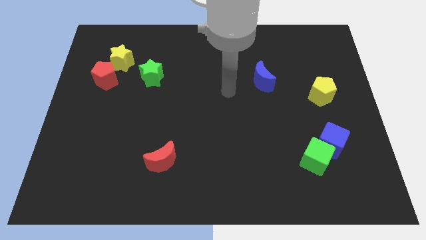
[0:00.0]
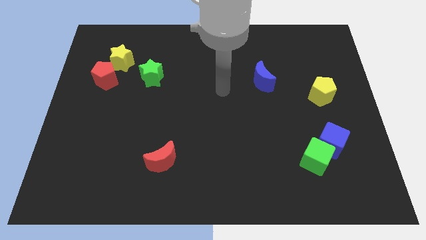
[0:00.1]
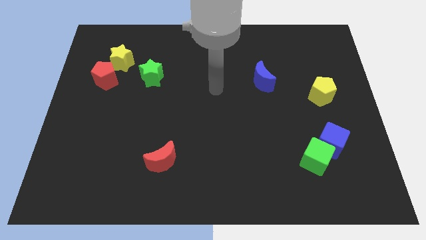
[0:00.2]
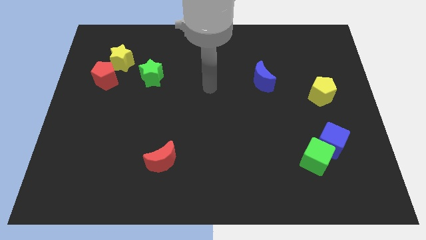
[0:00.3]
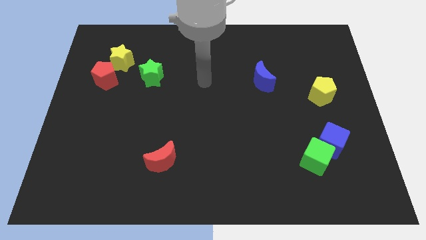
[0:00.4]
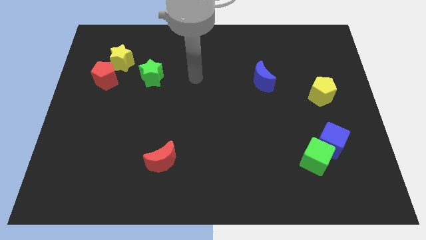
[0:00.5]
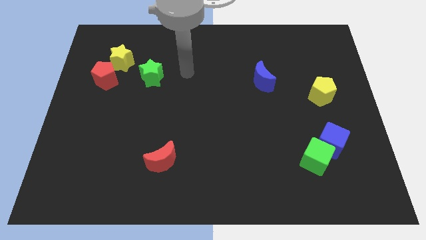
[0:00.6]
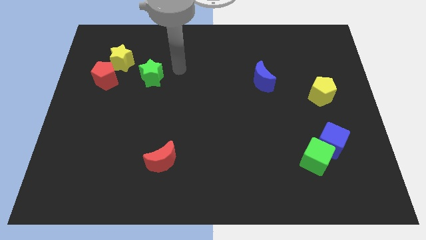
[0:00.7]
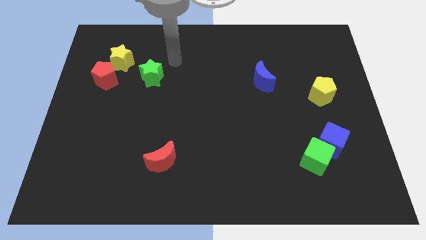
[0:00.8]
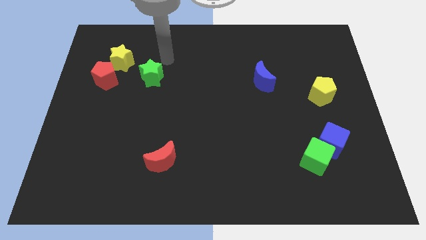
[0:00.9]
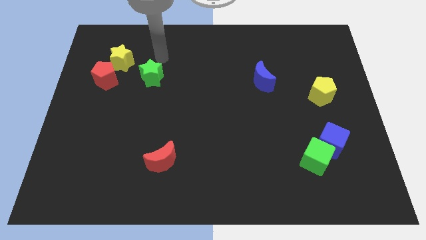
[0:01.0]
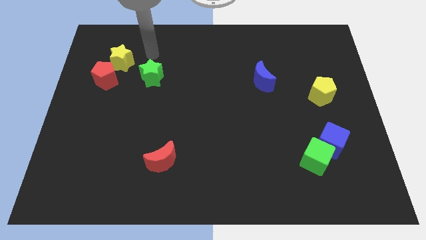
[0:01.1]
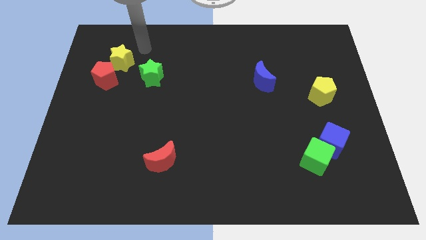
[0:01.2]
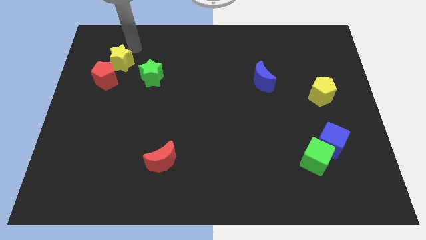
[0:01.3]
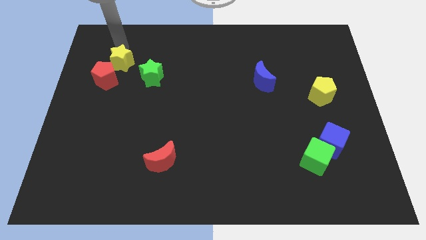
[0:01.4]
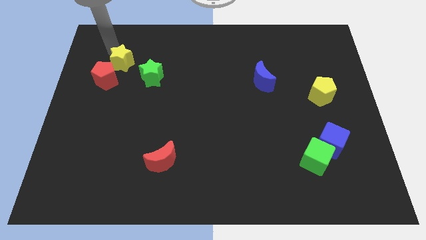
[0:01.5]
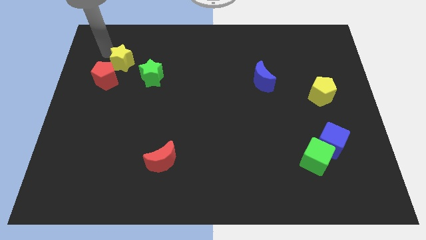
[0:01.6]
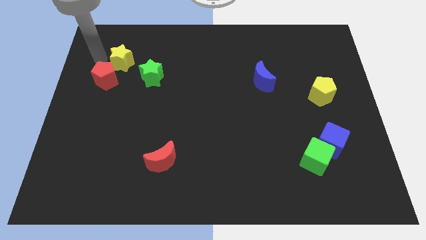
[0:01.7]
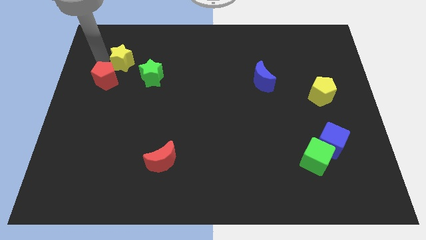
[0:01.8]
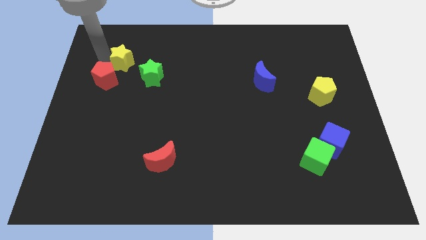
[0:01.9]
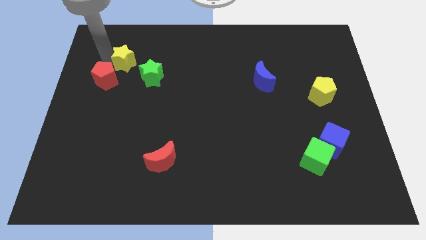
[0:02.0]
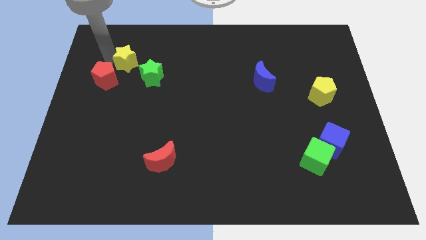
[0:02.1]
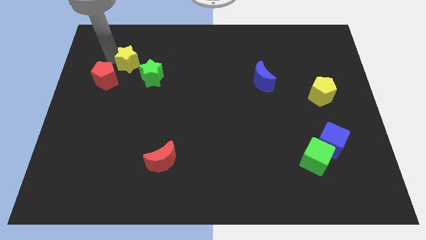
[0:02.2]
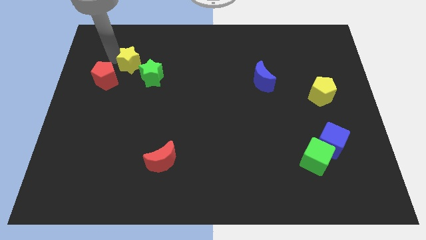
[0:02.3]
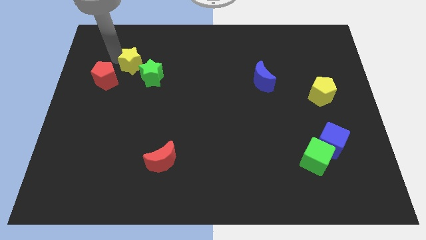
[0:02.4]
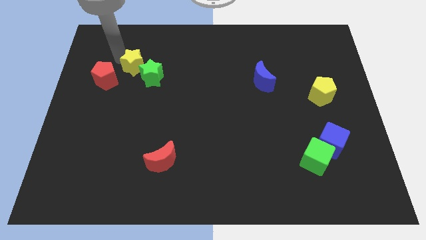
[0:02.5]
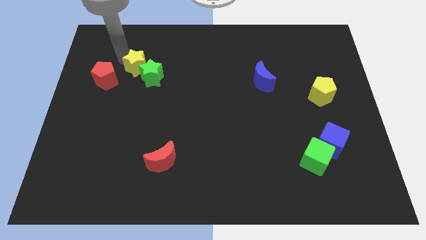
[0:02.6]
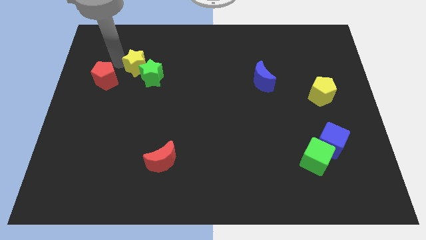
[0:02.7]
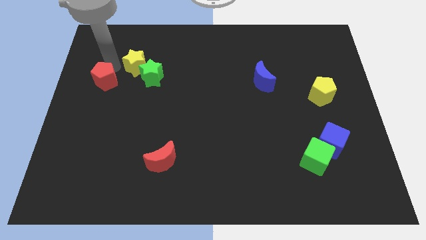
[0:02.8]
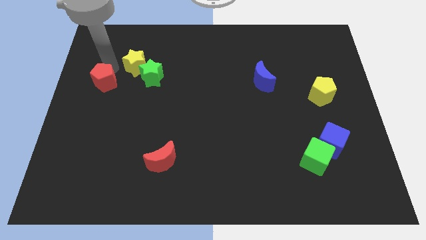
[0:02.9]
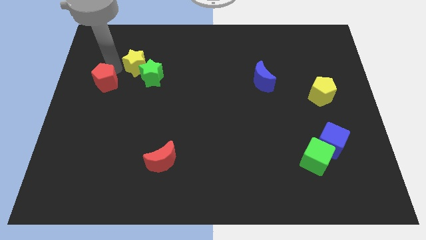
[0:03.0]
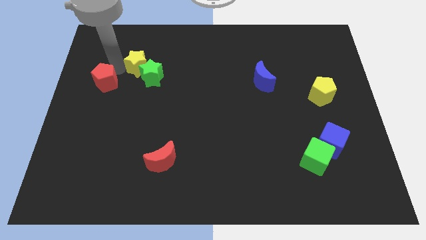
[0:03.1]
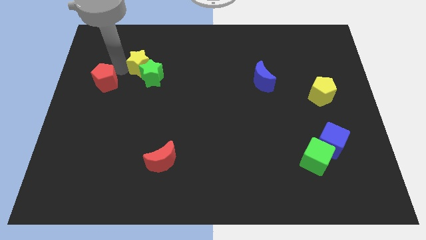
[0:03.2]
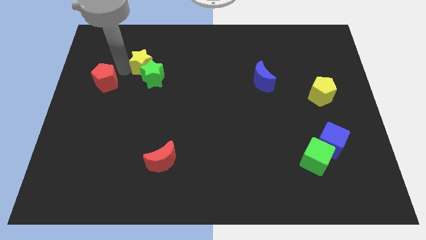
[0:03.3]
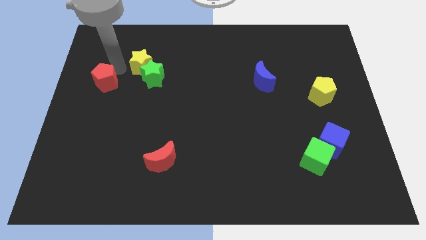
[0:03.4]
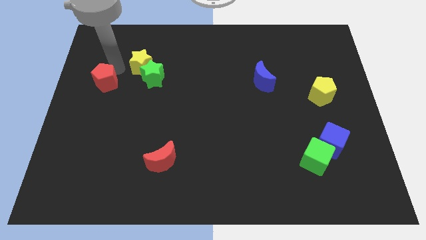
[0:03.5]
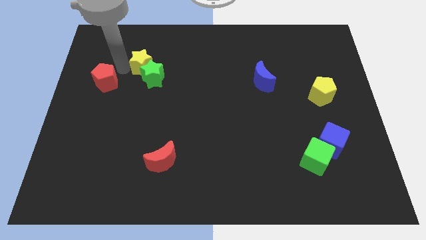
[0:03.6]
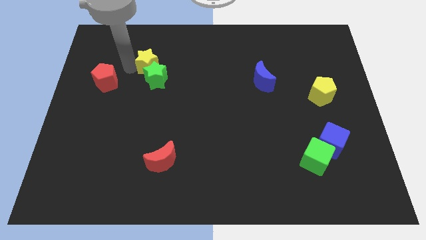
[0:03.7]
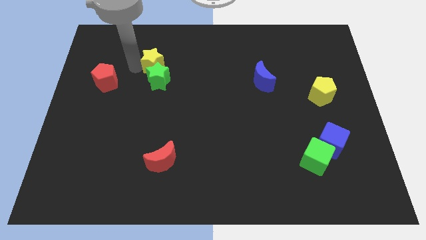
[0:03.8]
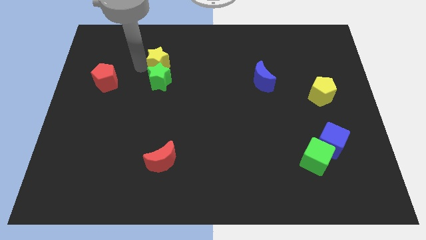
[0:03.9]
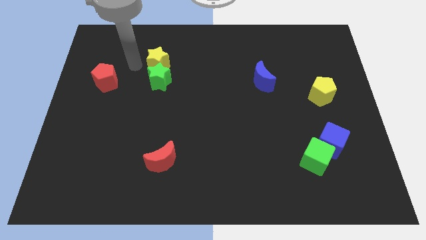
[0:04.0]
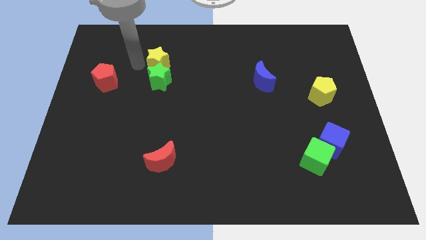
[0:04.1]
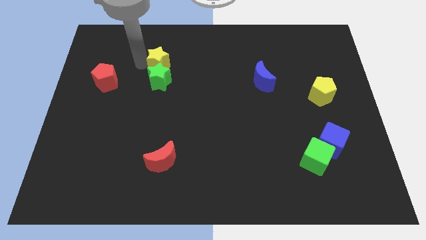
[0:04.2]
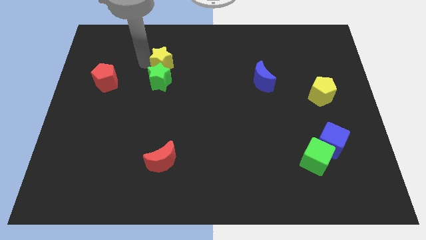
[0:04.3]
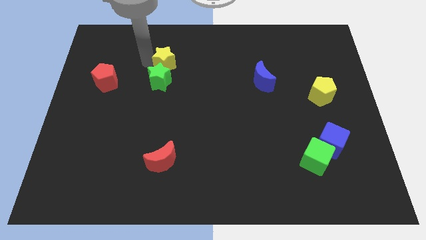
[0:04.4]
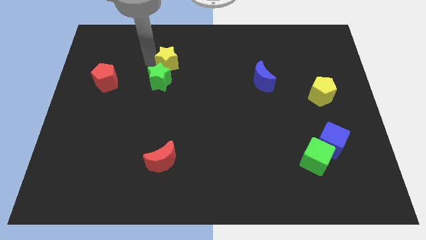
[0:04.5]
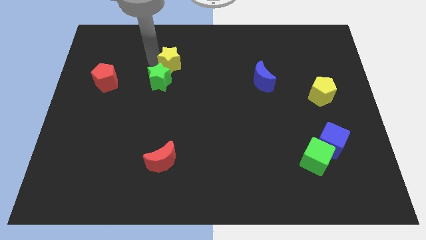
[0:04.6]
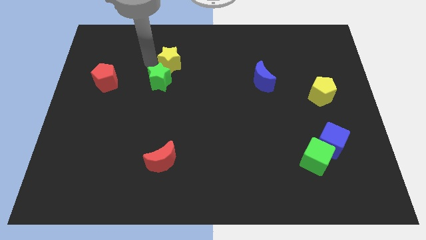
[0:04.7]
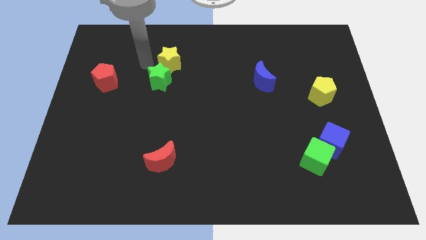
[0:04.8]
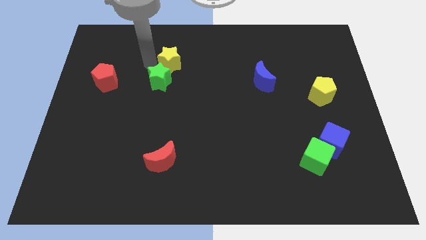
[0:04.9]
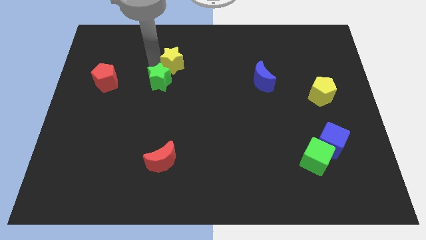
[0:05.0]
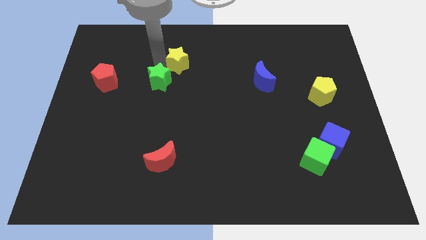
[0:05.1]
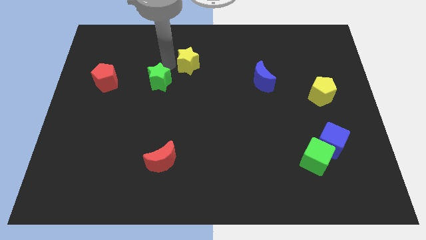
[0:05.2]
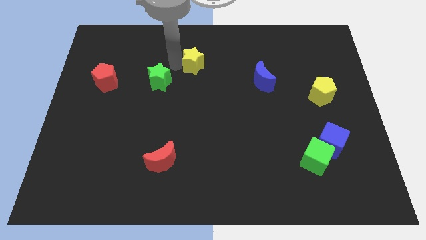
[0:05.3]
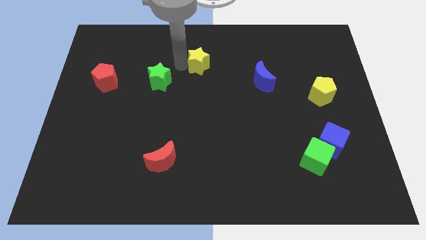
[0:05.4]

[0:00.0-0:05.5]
slide the yellow star right

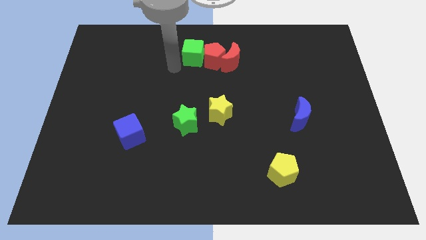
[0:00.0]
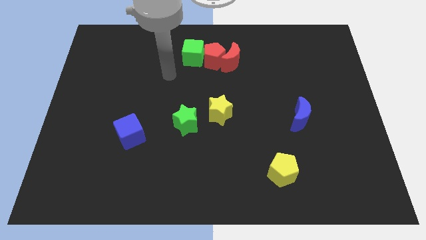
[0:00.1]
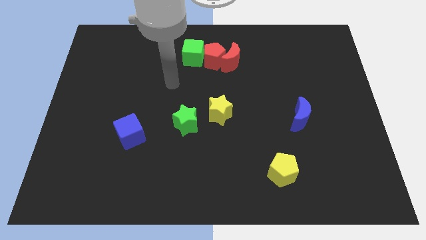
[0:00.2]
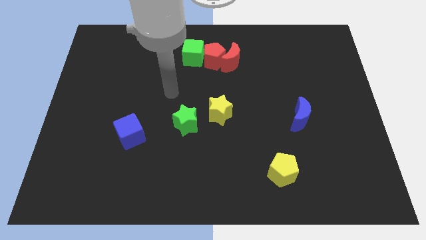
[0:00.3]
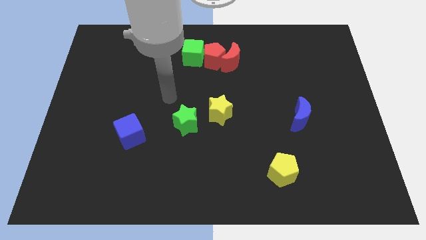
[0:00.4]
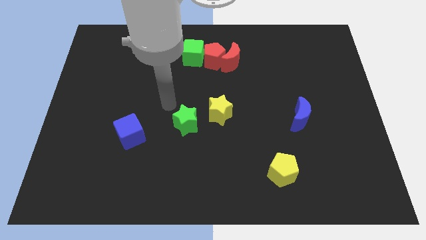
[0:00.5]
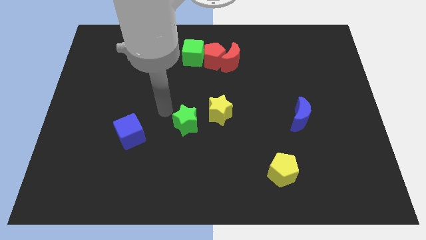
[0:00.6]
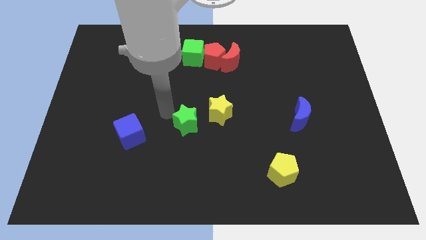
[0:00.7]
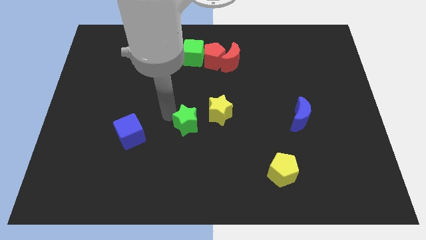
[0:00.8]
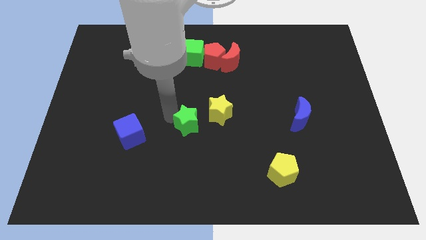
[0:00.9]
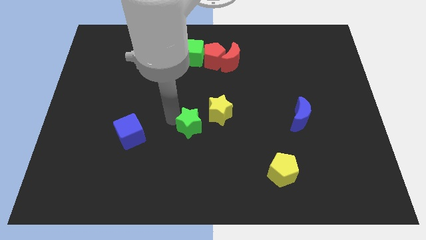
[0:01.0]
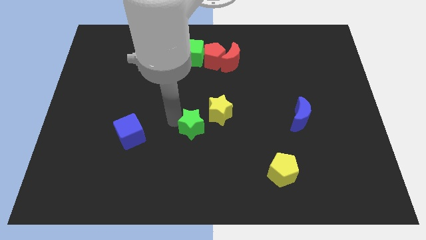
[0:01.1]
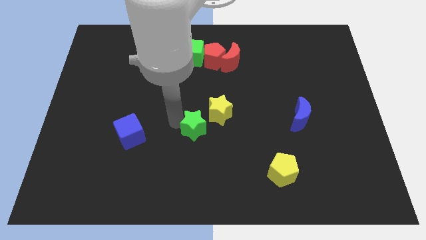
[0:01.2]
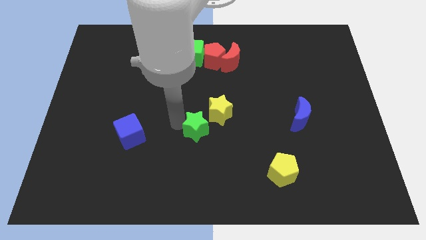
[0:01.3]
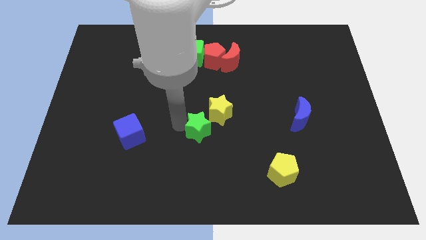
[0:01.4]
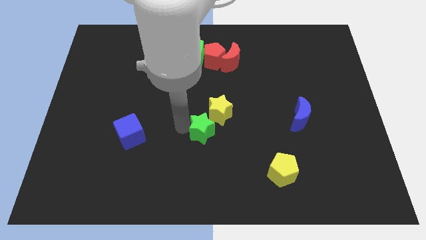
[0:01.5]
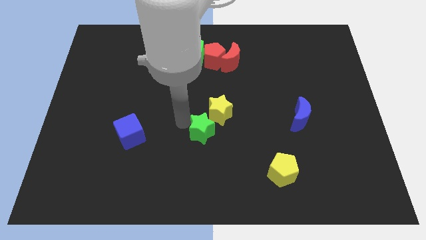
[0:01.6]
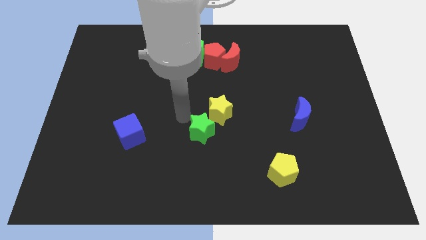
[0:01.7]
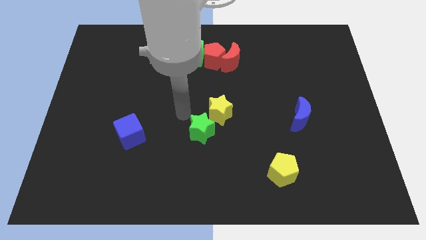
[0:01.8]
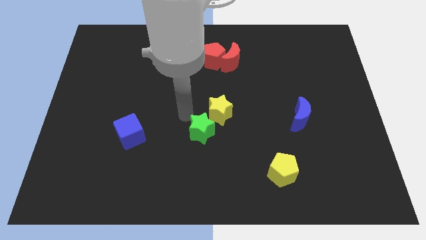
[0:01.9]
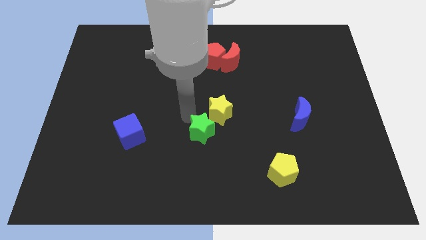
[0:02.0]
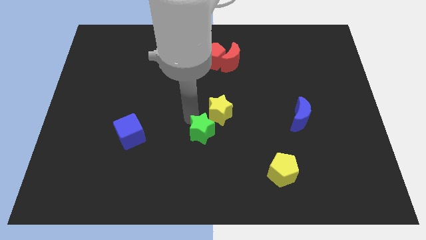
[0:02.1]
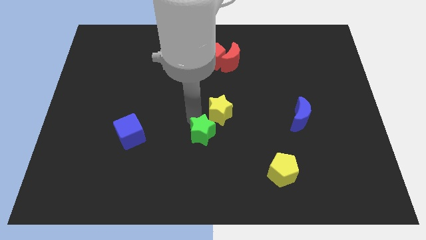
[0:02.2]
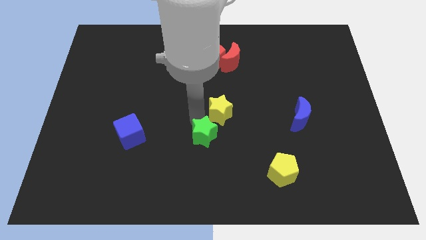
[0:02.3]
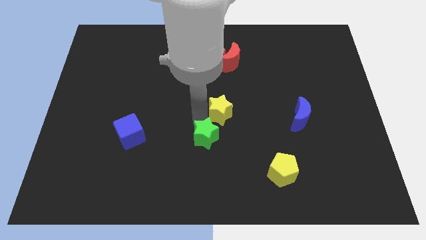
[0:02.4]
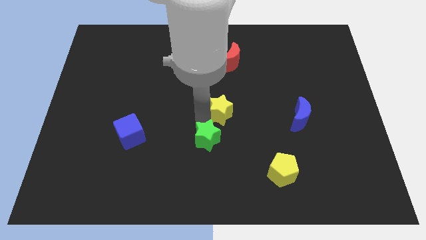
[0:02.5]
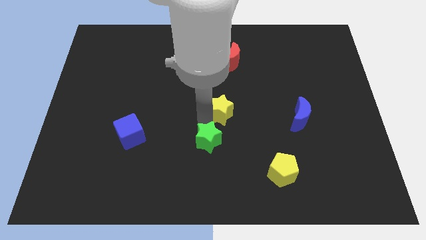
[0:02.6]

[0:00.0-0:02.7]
push the green star somewhat downwards and then right
